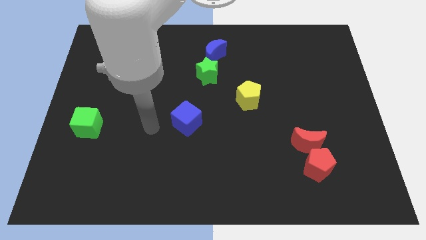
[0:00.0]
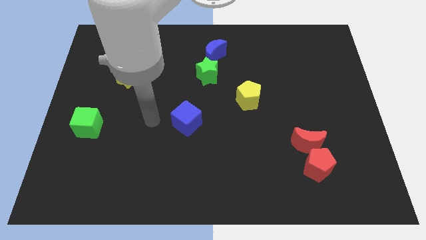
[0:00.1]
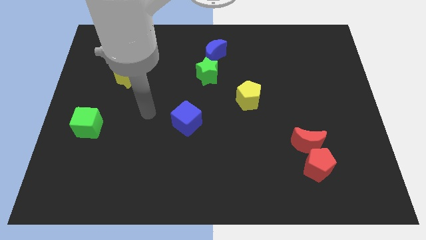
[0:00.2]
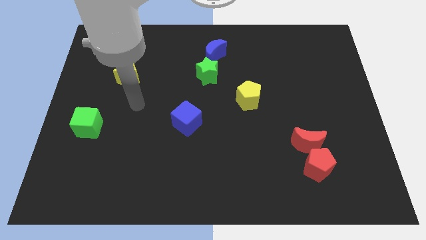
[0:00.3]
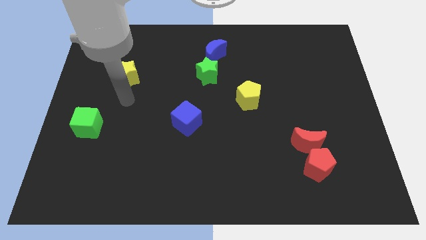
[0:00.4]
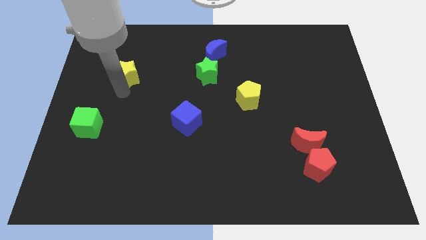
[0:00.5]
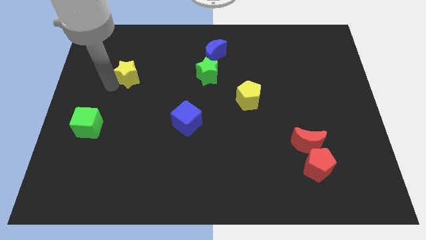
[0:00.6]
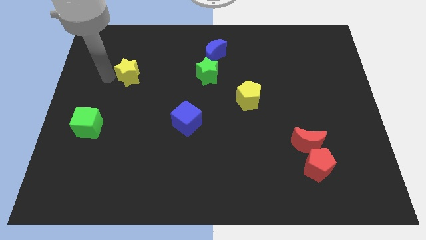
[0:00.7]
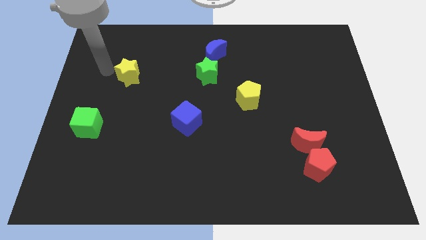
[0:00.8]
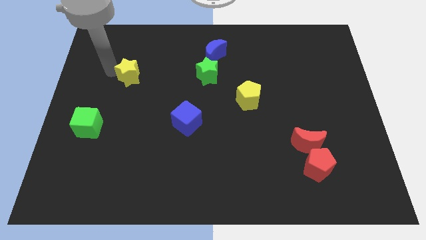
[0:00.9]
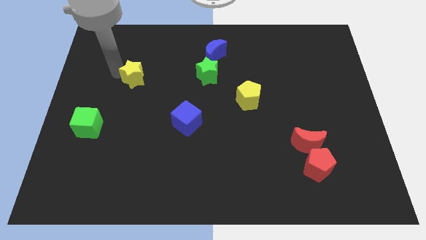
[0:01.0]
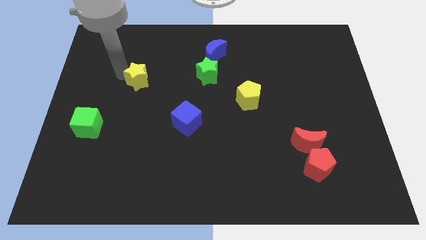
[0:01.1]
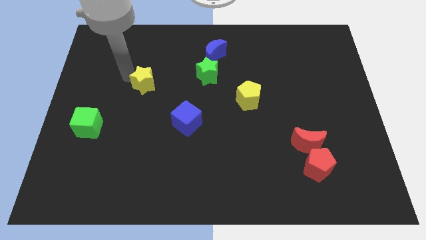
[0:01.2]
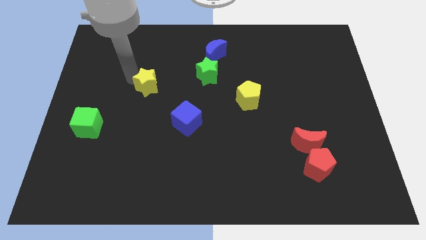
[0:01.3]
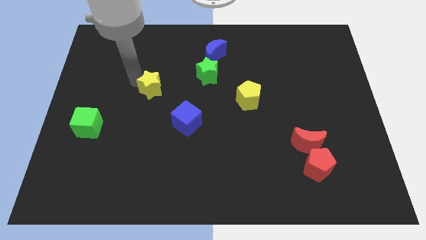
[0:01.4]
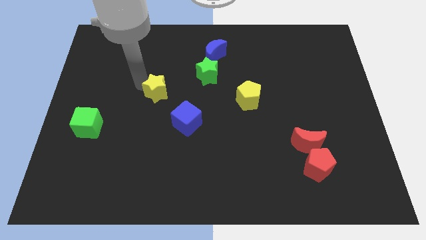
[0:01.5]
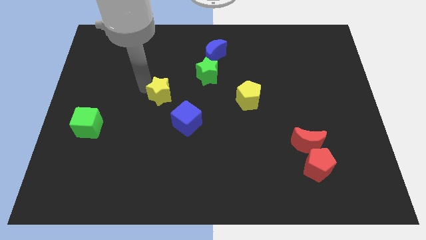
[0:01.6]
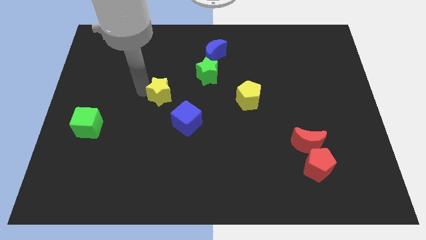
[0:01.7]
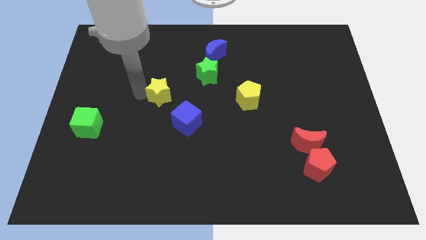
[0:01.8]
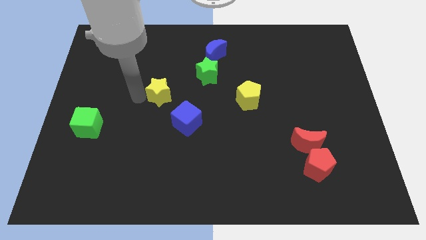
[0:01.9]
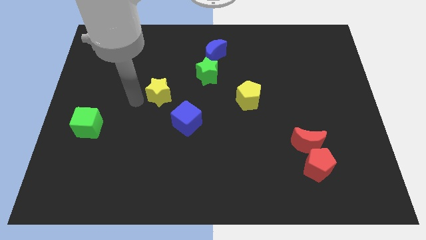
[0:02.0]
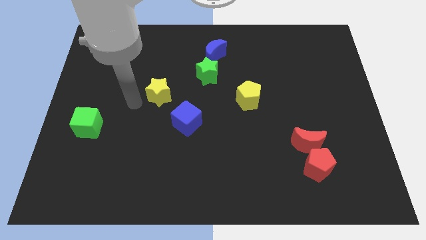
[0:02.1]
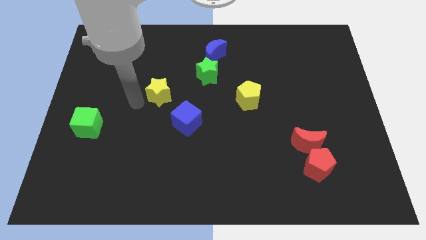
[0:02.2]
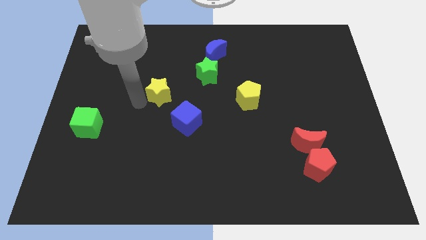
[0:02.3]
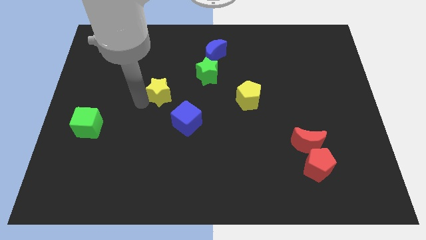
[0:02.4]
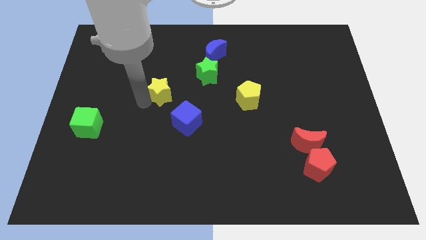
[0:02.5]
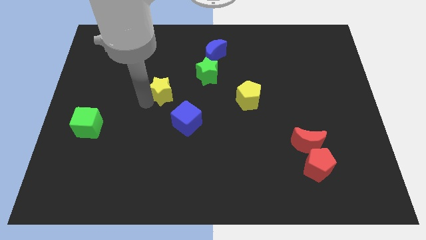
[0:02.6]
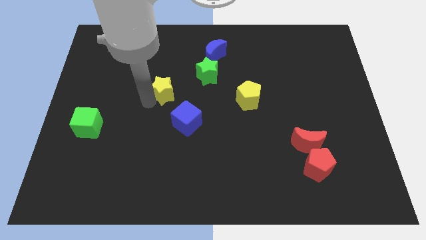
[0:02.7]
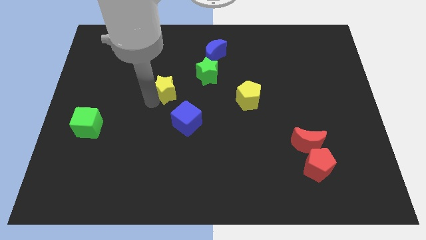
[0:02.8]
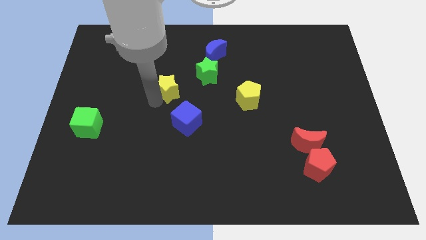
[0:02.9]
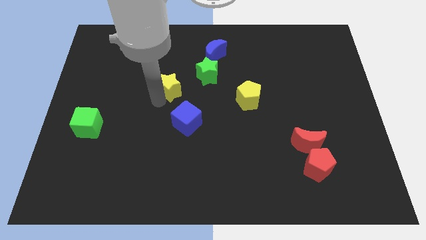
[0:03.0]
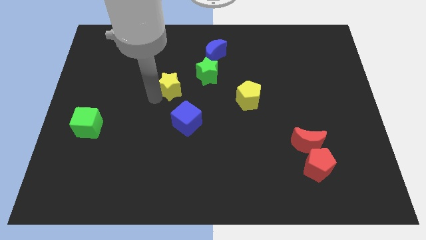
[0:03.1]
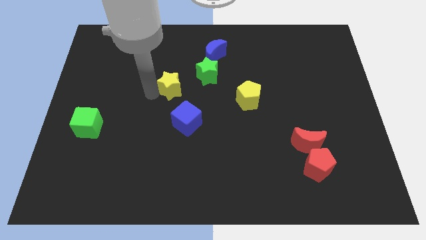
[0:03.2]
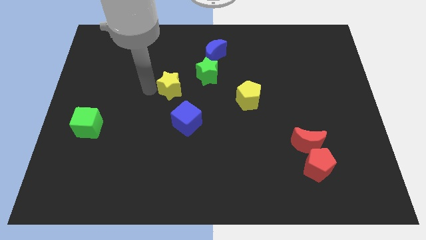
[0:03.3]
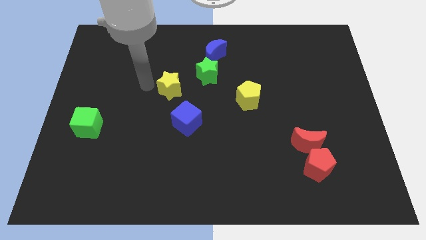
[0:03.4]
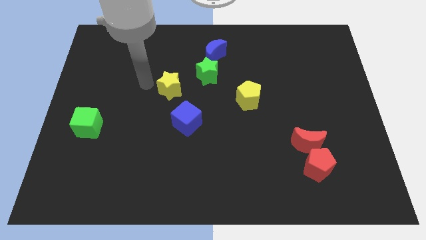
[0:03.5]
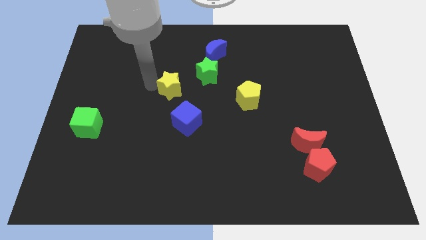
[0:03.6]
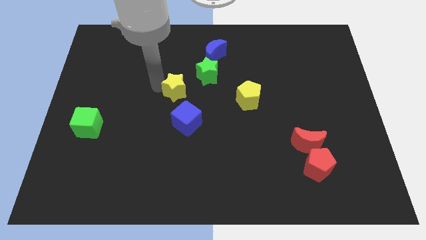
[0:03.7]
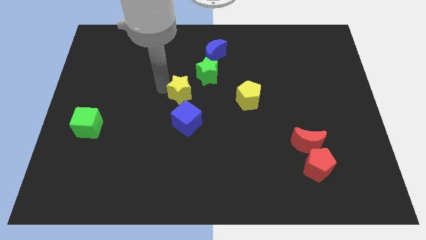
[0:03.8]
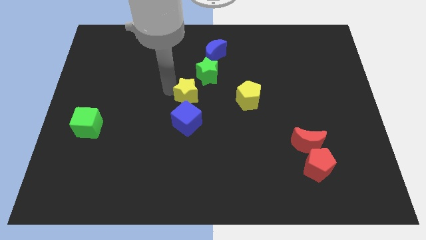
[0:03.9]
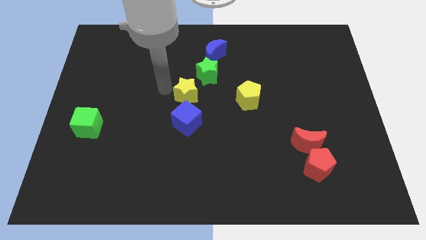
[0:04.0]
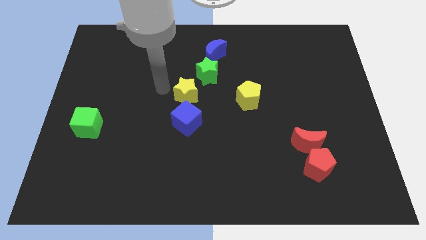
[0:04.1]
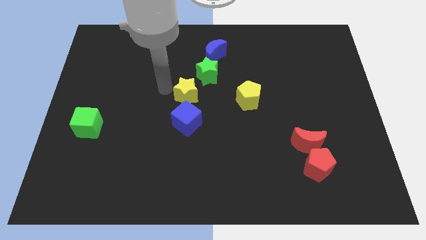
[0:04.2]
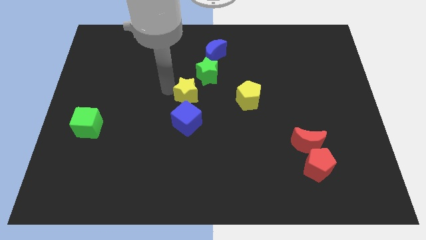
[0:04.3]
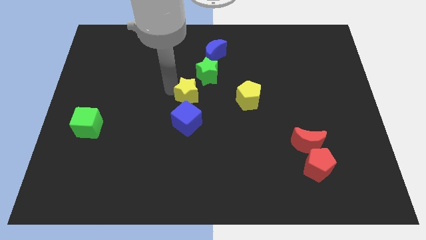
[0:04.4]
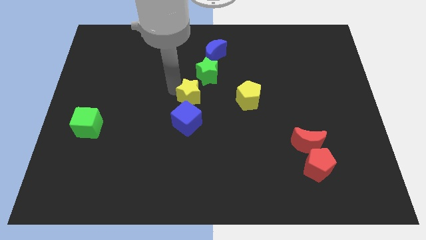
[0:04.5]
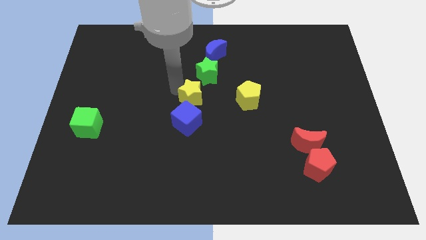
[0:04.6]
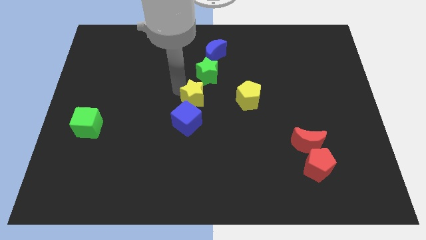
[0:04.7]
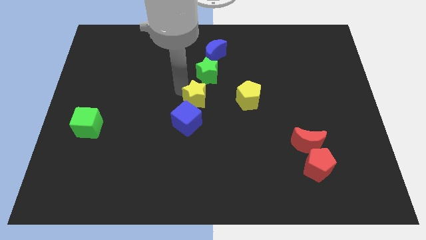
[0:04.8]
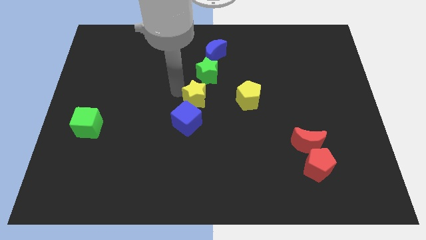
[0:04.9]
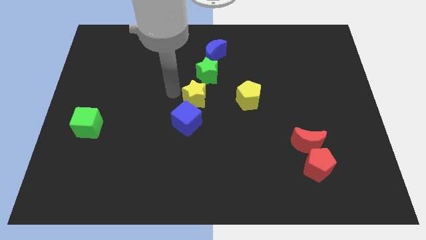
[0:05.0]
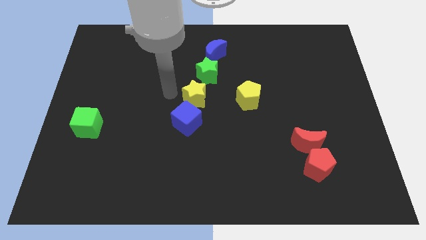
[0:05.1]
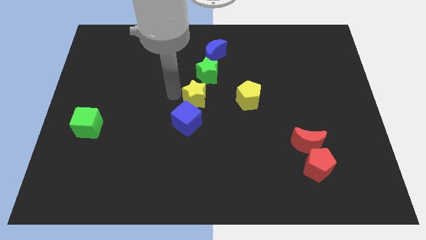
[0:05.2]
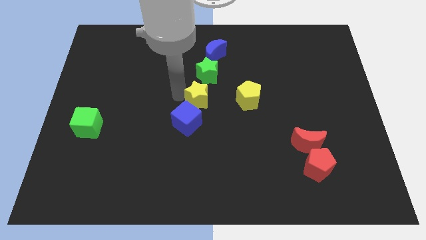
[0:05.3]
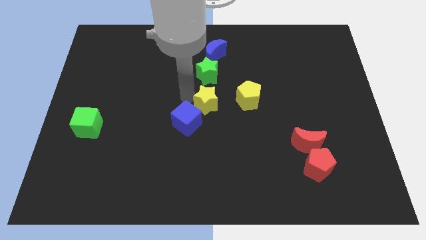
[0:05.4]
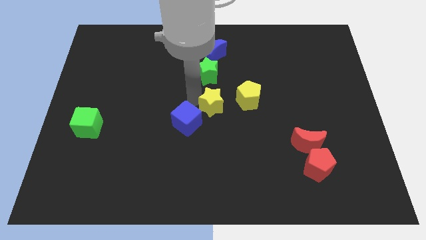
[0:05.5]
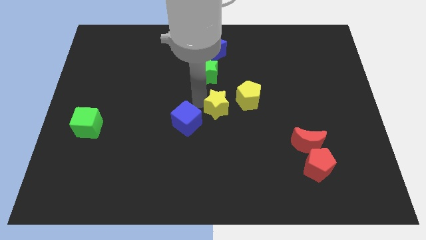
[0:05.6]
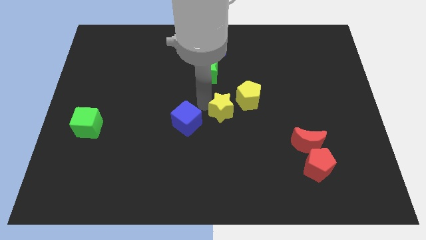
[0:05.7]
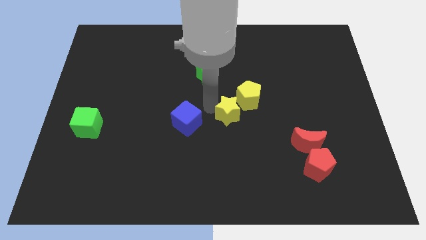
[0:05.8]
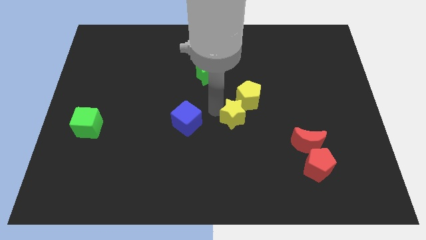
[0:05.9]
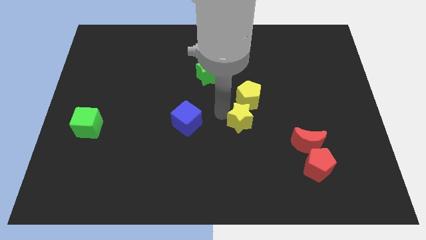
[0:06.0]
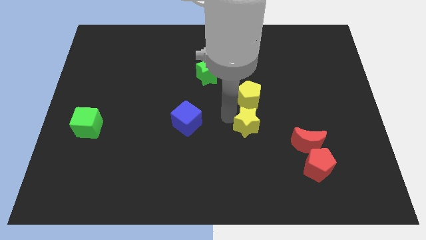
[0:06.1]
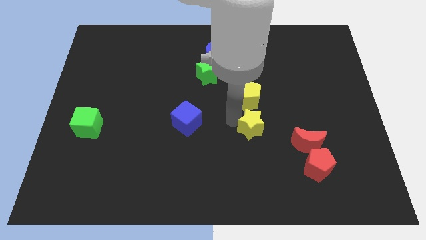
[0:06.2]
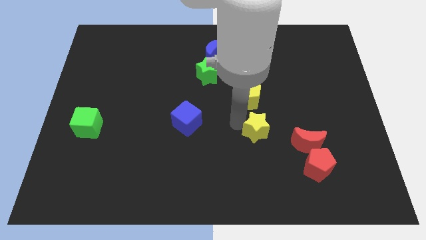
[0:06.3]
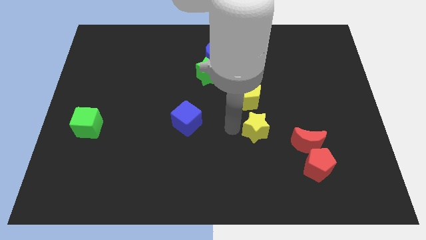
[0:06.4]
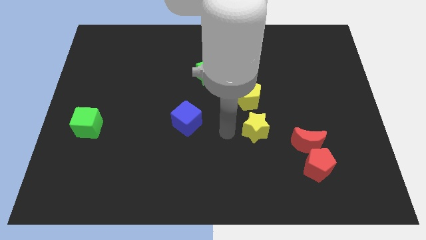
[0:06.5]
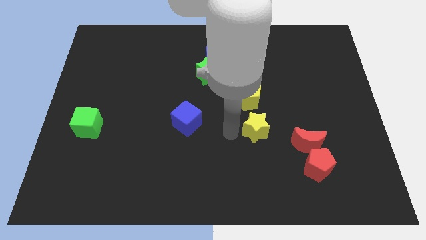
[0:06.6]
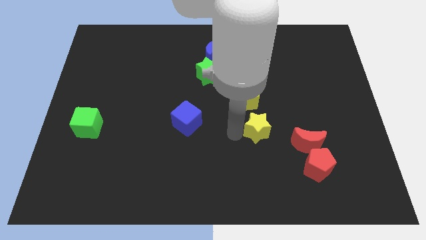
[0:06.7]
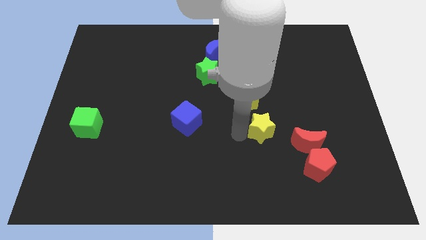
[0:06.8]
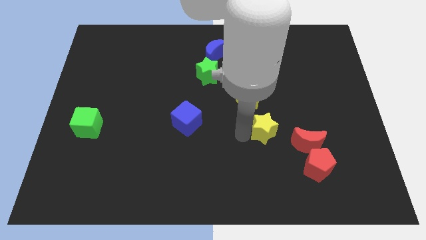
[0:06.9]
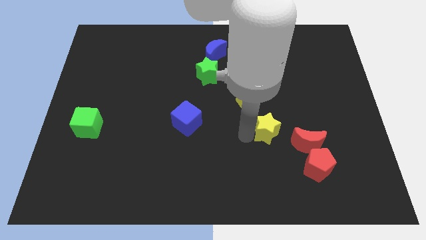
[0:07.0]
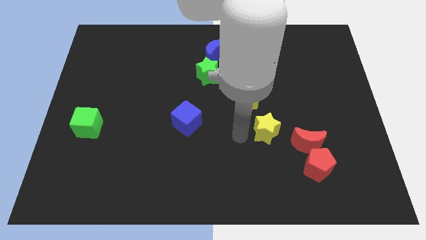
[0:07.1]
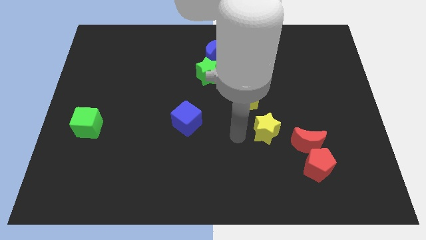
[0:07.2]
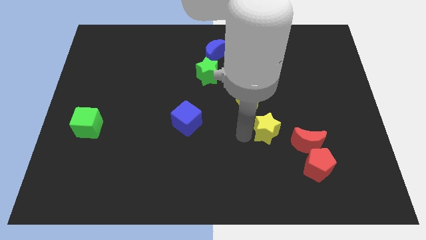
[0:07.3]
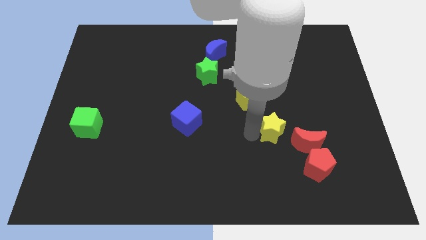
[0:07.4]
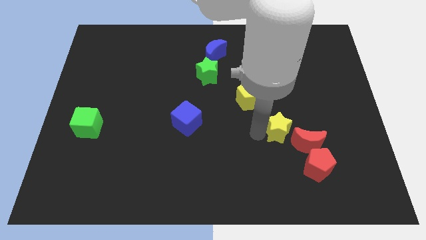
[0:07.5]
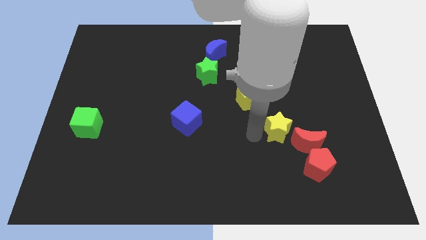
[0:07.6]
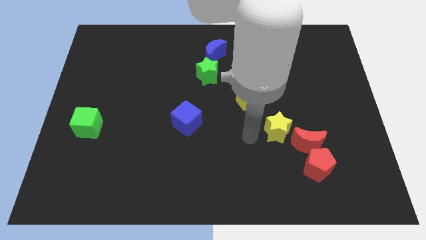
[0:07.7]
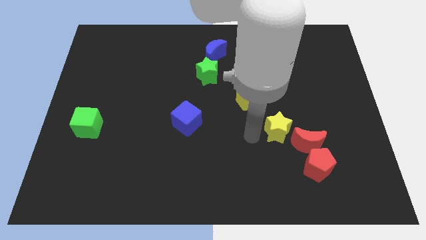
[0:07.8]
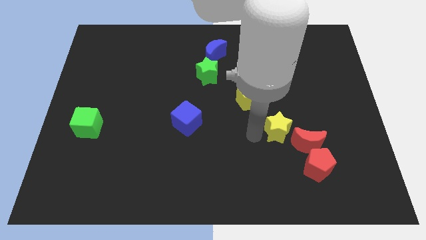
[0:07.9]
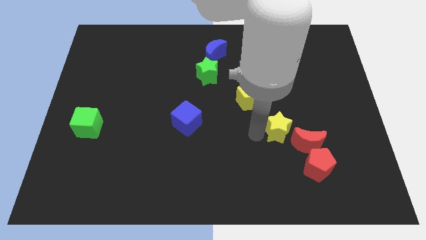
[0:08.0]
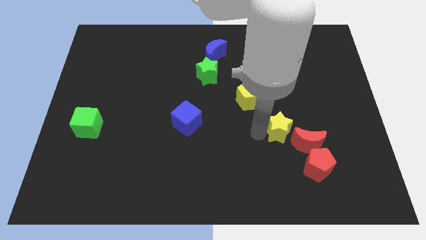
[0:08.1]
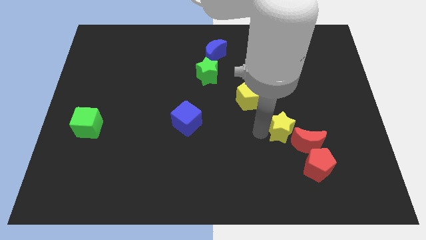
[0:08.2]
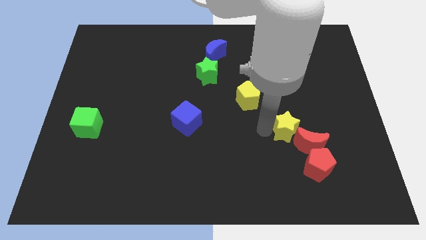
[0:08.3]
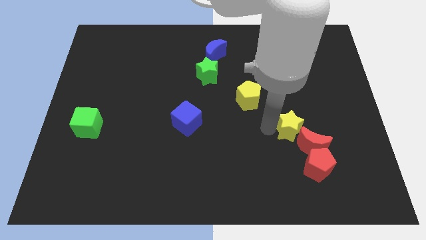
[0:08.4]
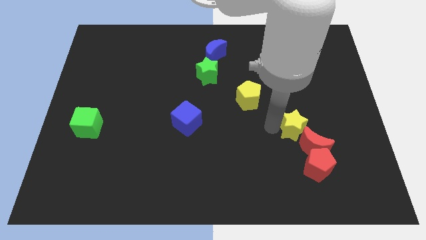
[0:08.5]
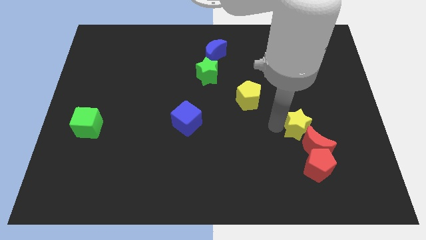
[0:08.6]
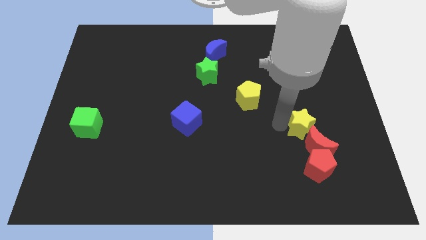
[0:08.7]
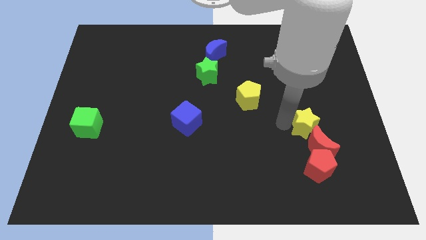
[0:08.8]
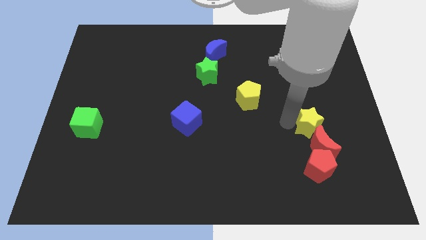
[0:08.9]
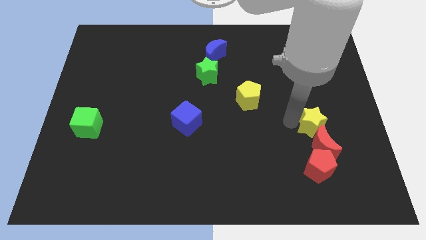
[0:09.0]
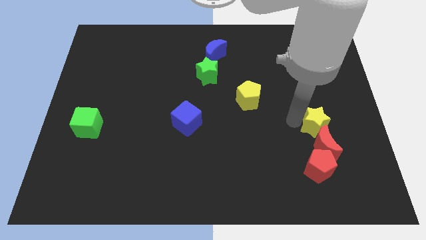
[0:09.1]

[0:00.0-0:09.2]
slide the yellow star diagonally up and to the right of the red moon
